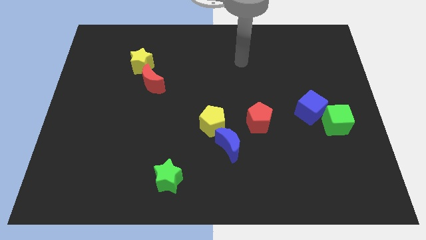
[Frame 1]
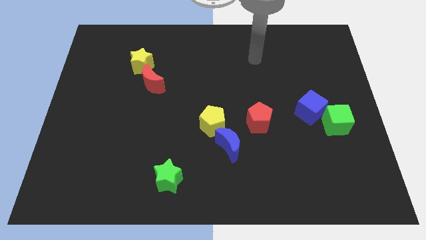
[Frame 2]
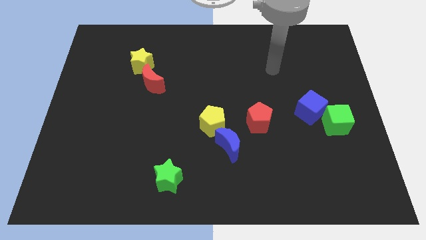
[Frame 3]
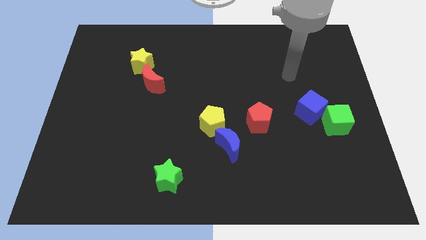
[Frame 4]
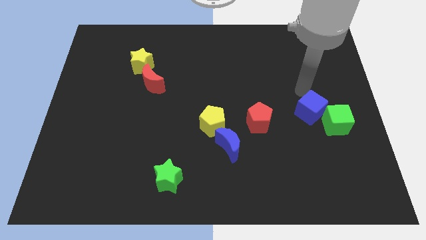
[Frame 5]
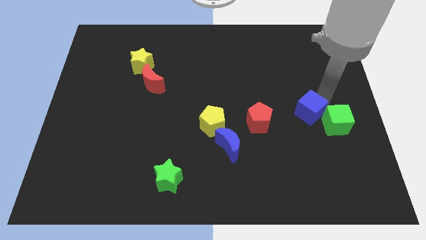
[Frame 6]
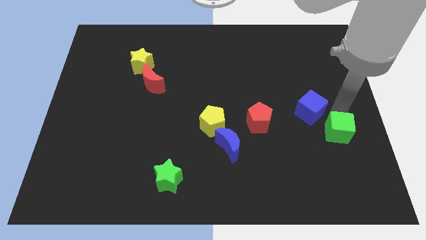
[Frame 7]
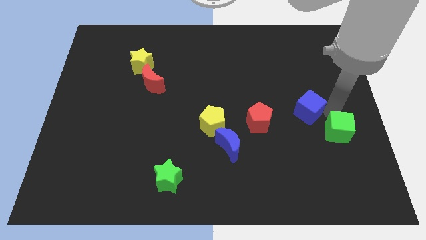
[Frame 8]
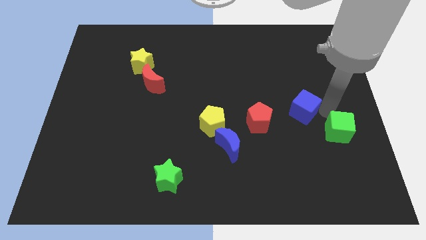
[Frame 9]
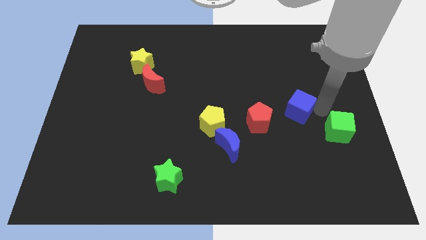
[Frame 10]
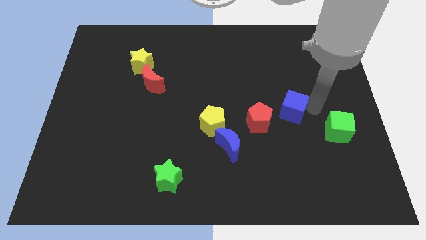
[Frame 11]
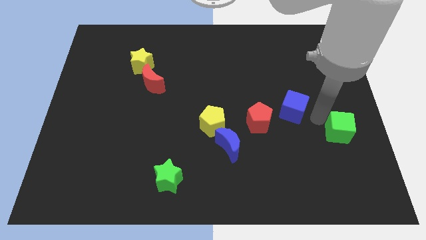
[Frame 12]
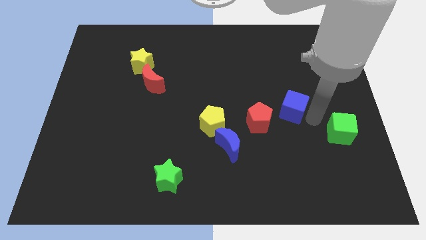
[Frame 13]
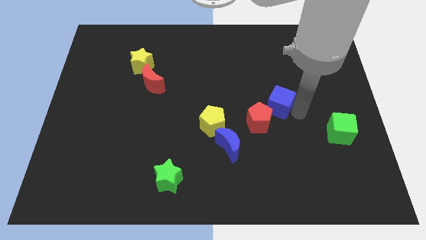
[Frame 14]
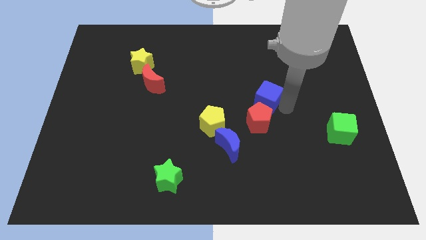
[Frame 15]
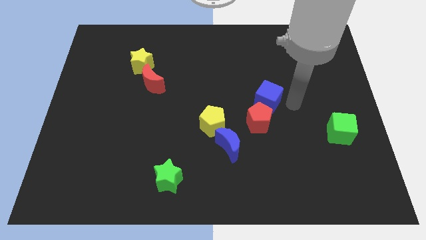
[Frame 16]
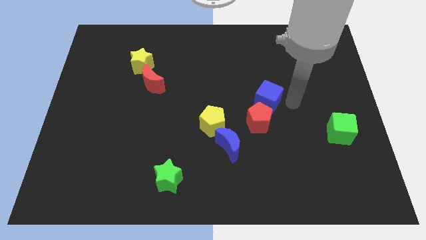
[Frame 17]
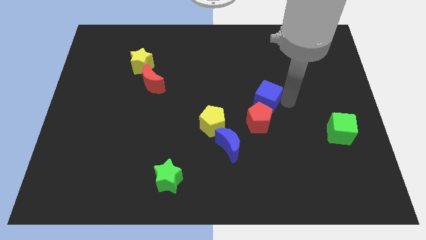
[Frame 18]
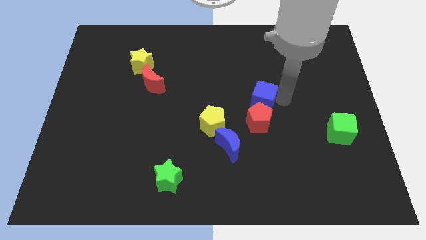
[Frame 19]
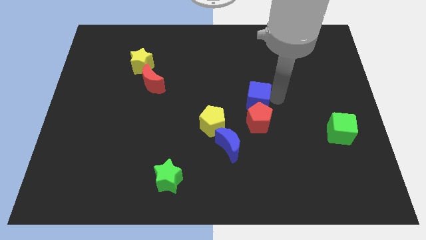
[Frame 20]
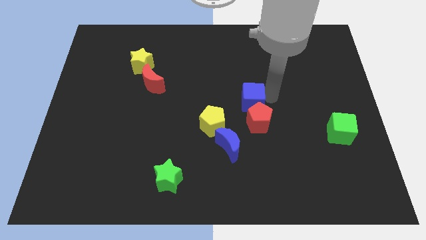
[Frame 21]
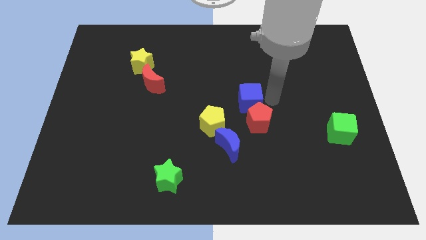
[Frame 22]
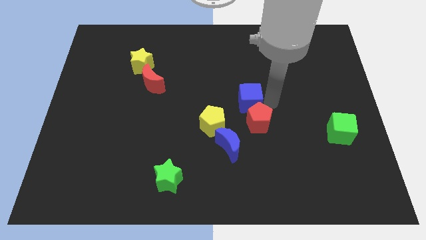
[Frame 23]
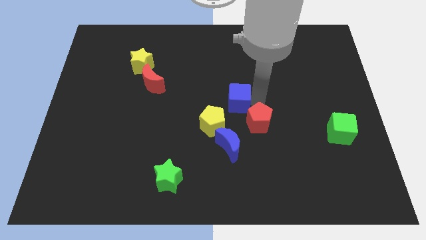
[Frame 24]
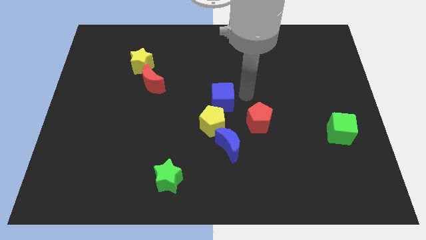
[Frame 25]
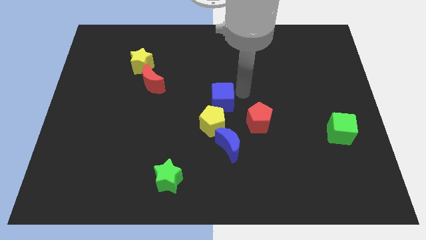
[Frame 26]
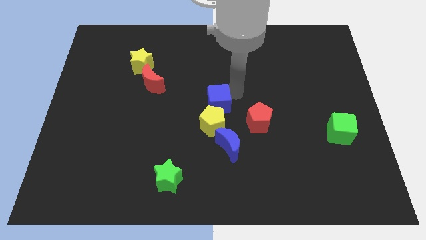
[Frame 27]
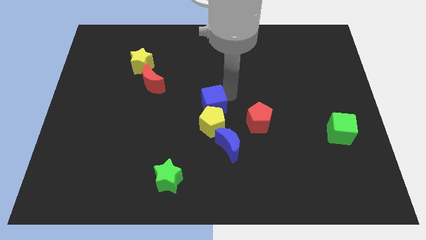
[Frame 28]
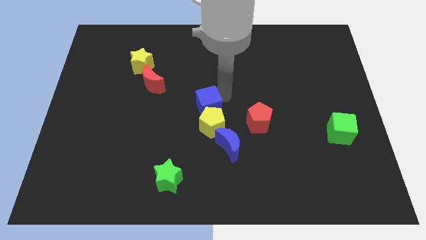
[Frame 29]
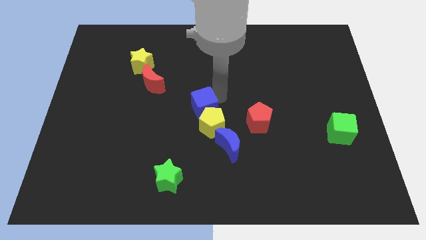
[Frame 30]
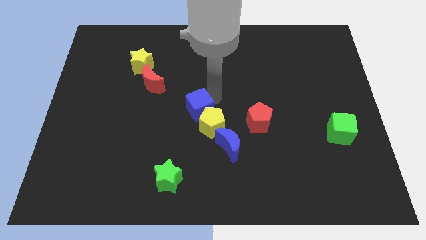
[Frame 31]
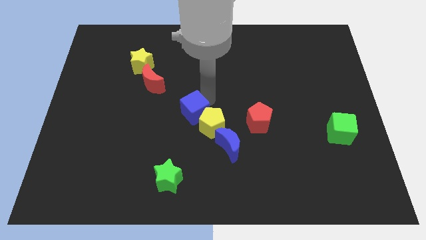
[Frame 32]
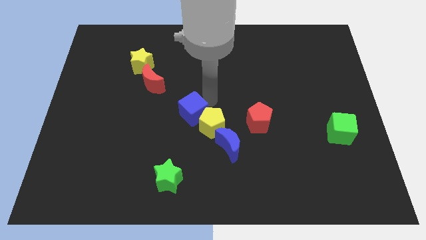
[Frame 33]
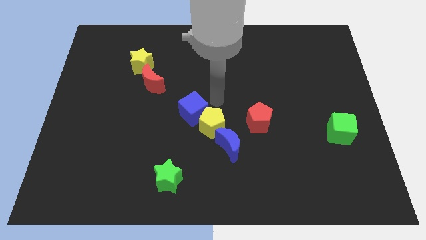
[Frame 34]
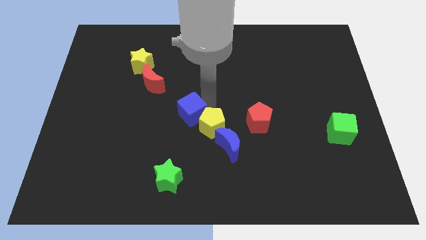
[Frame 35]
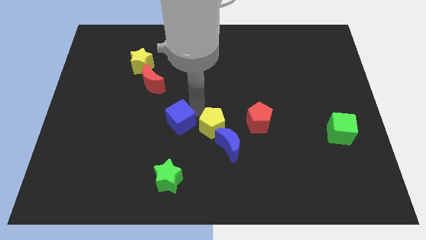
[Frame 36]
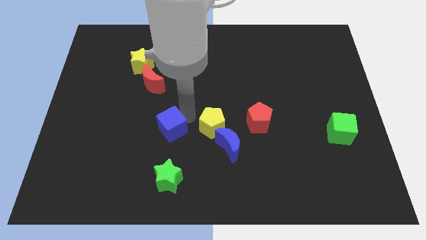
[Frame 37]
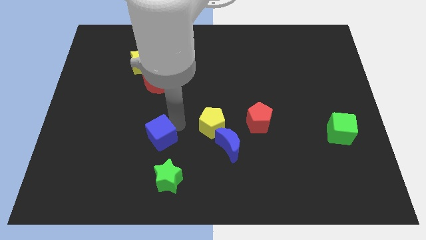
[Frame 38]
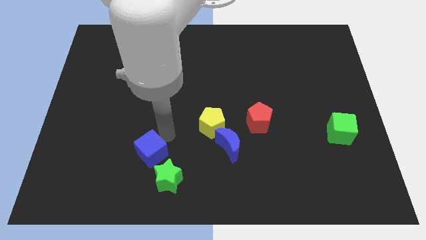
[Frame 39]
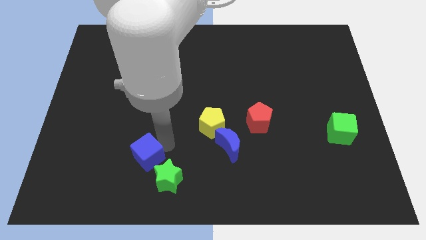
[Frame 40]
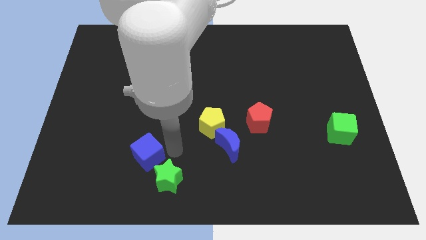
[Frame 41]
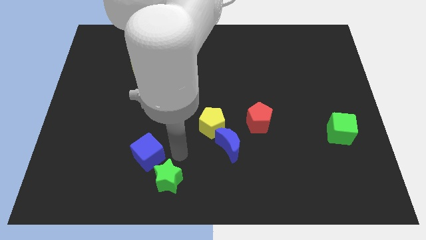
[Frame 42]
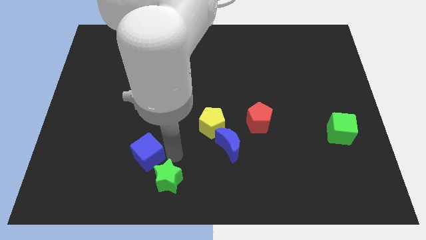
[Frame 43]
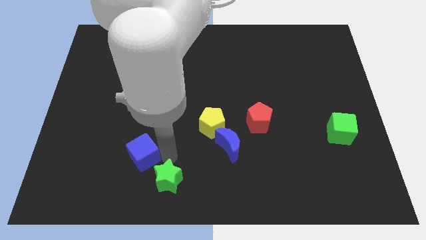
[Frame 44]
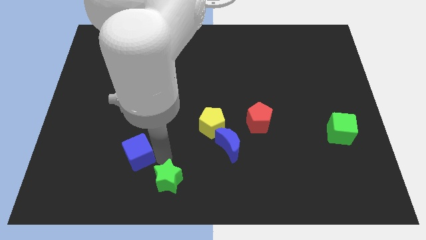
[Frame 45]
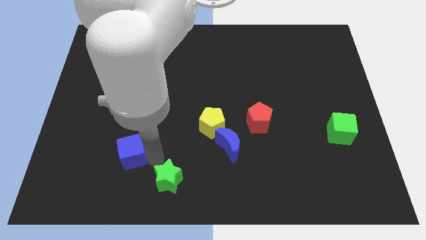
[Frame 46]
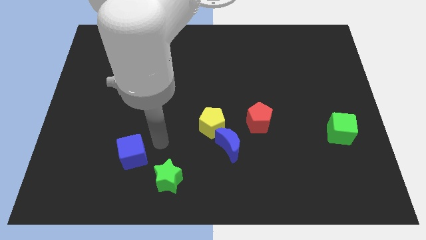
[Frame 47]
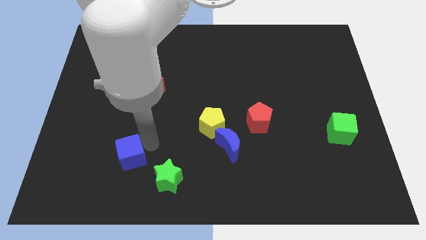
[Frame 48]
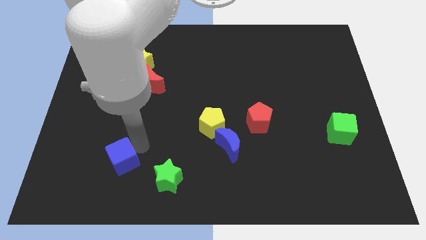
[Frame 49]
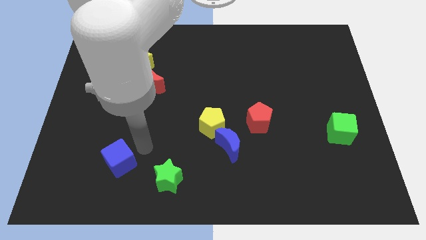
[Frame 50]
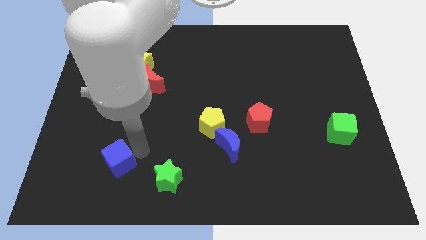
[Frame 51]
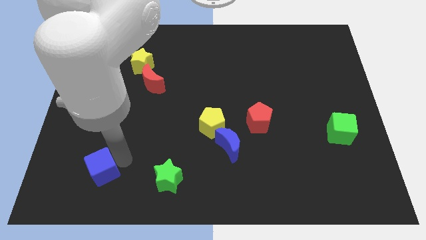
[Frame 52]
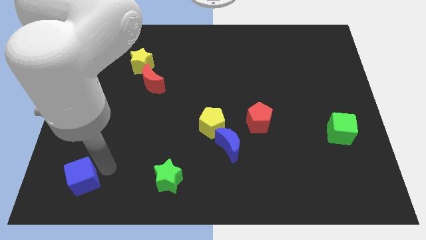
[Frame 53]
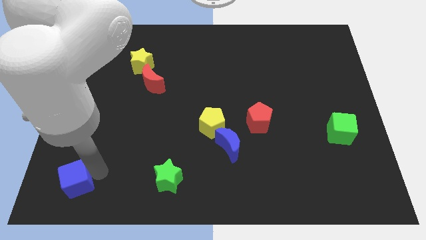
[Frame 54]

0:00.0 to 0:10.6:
push the blue cube to the bottom left

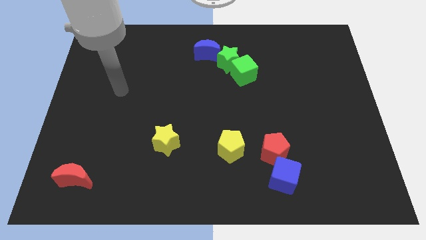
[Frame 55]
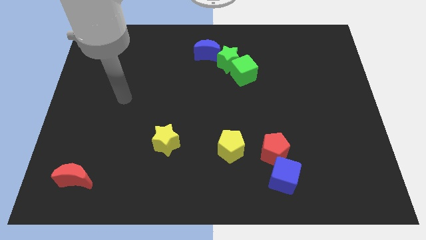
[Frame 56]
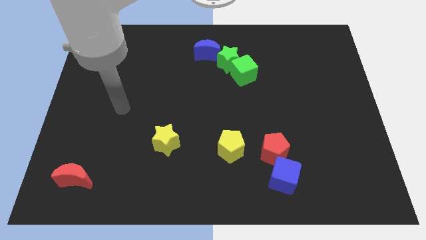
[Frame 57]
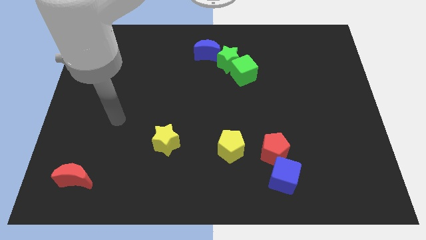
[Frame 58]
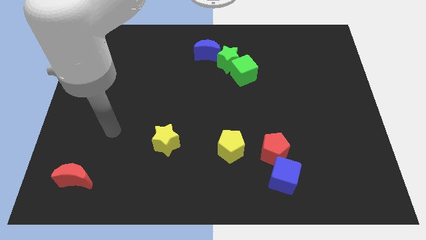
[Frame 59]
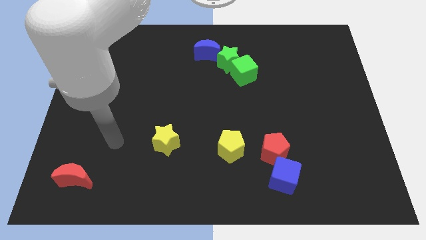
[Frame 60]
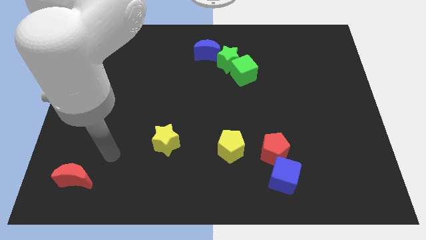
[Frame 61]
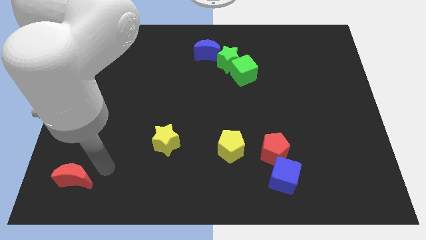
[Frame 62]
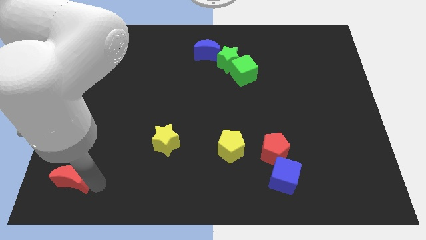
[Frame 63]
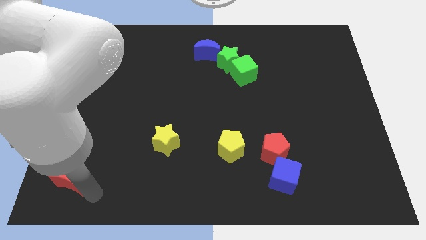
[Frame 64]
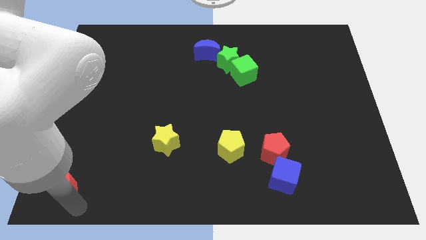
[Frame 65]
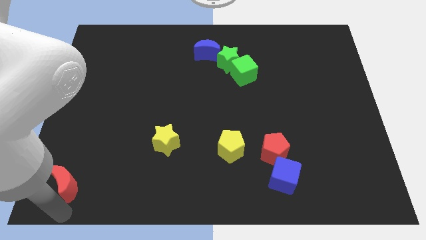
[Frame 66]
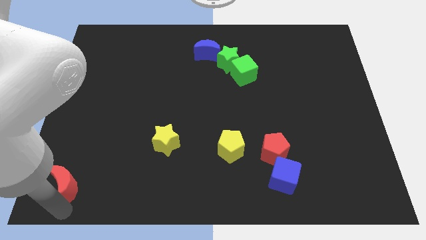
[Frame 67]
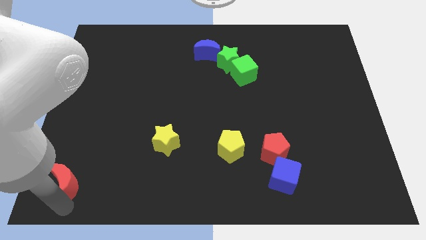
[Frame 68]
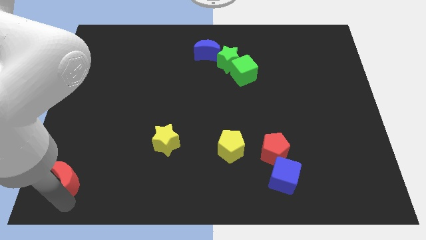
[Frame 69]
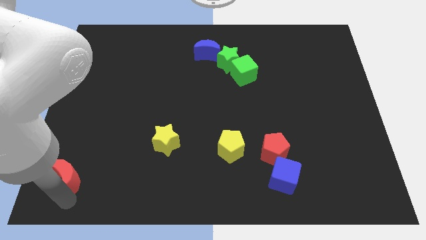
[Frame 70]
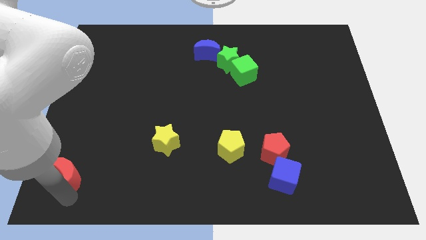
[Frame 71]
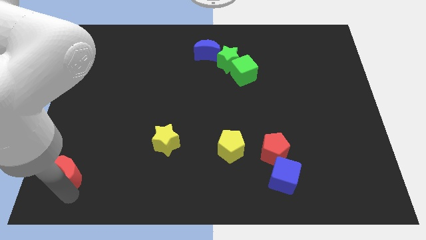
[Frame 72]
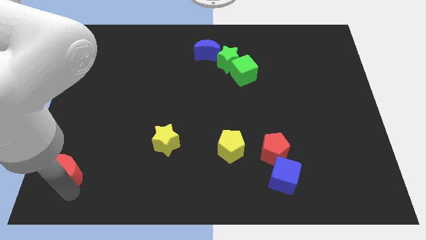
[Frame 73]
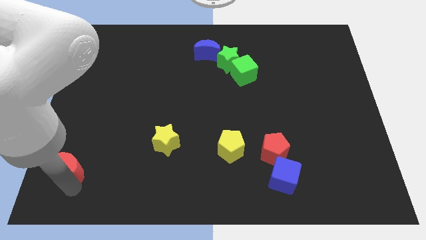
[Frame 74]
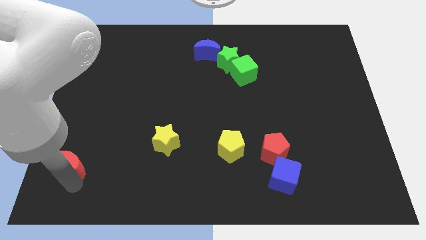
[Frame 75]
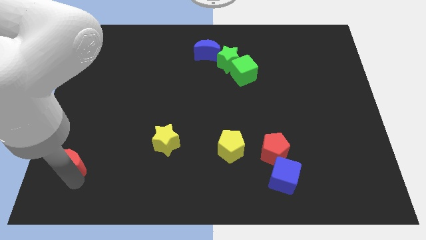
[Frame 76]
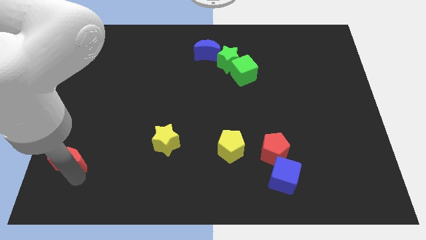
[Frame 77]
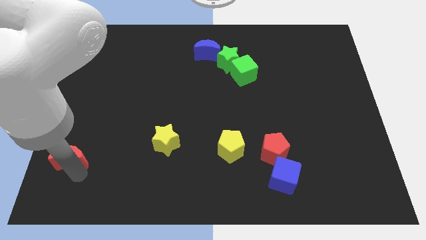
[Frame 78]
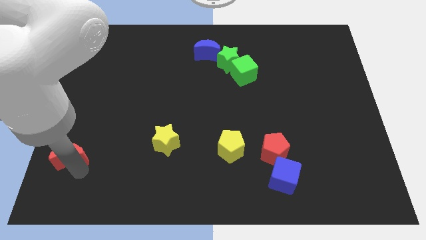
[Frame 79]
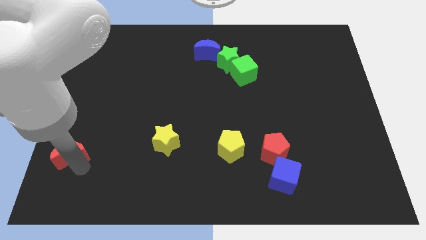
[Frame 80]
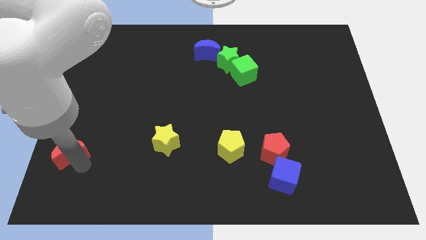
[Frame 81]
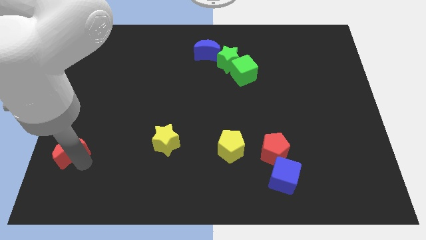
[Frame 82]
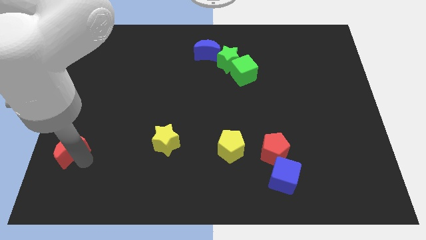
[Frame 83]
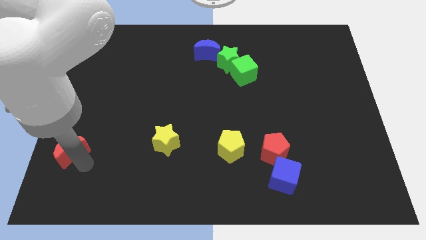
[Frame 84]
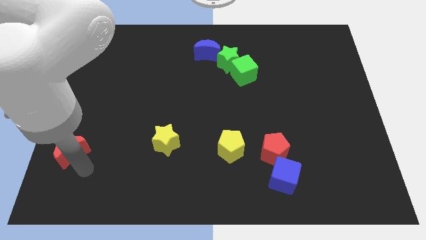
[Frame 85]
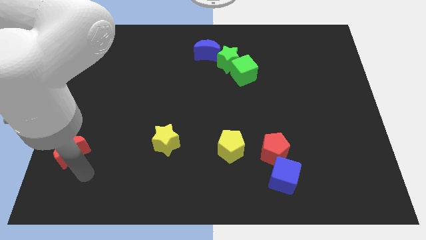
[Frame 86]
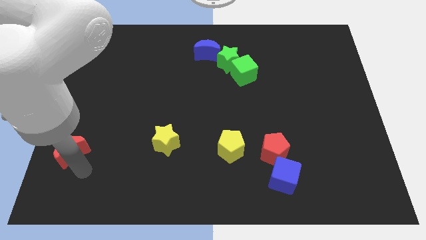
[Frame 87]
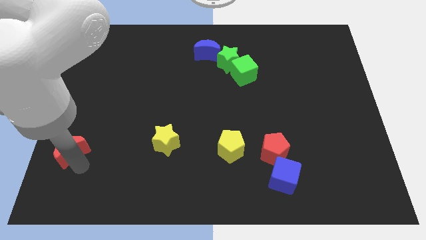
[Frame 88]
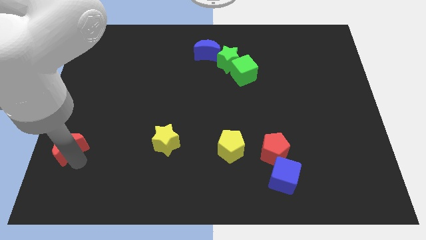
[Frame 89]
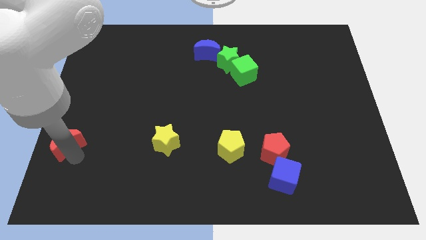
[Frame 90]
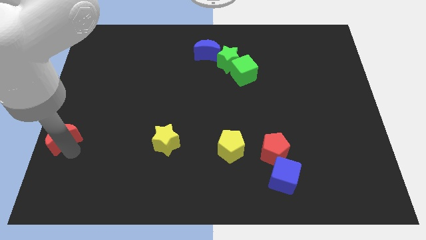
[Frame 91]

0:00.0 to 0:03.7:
move the red moon to the left side of the board
